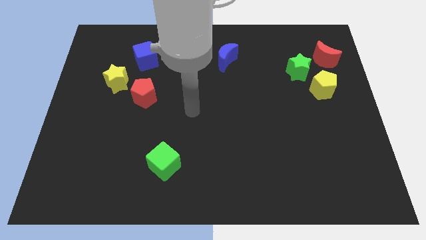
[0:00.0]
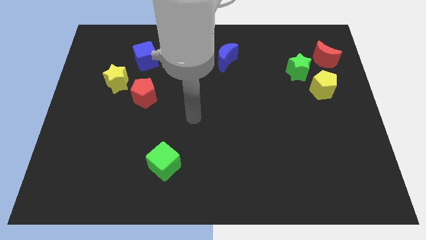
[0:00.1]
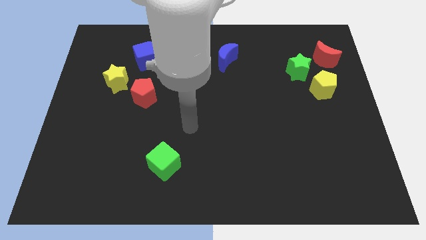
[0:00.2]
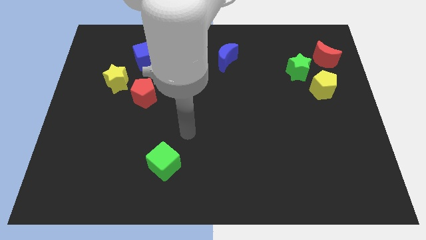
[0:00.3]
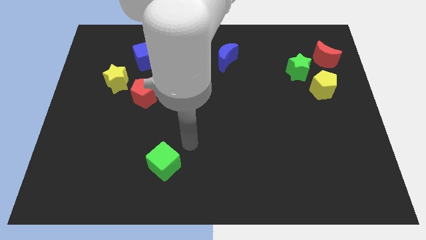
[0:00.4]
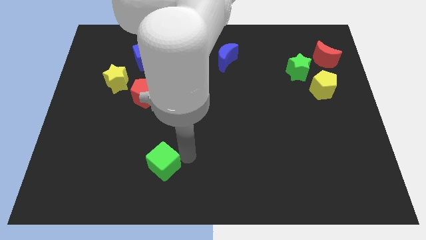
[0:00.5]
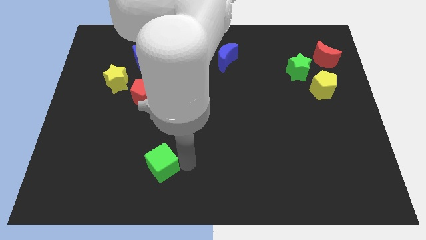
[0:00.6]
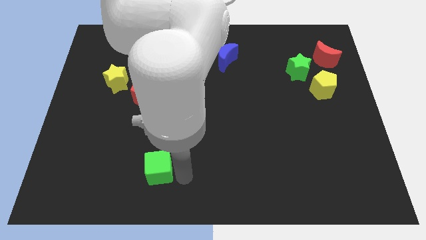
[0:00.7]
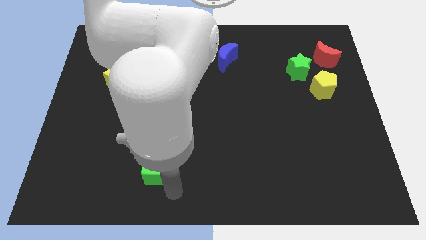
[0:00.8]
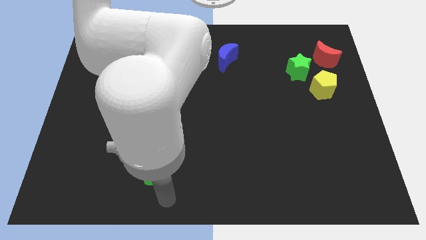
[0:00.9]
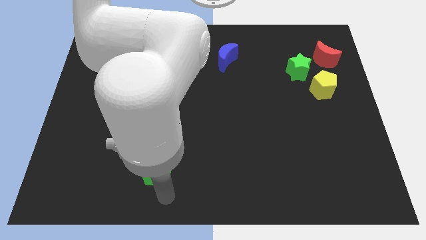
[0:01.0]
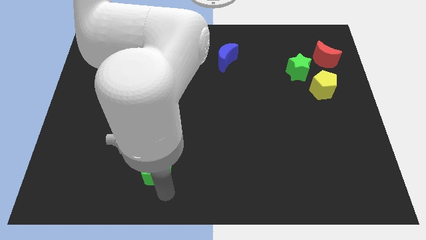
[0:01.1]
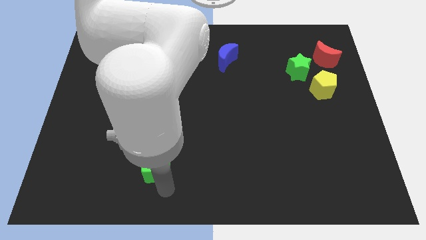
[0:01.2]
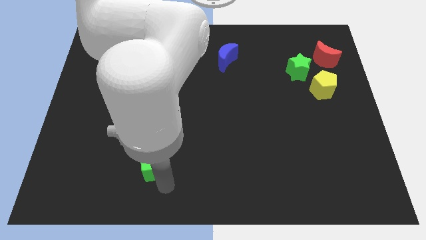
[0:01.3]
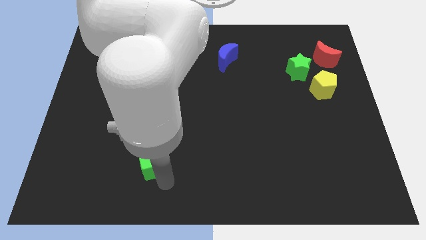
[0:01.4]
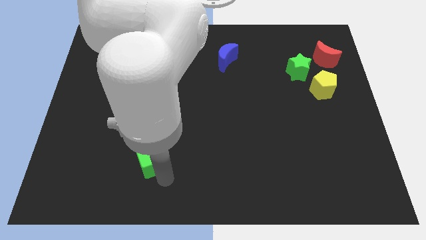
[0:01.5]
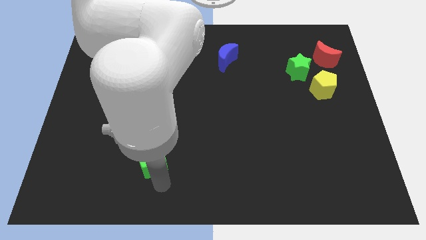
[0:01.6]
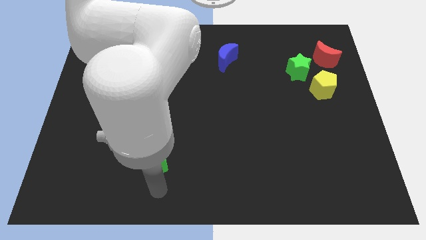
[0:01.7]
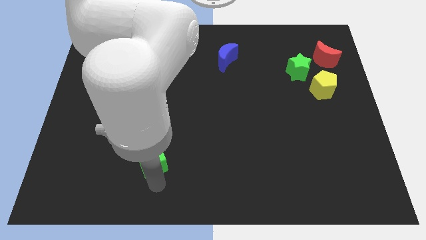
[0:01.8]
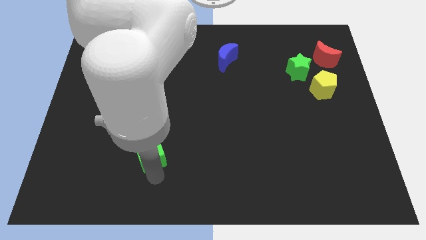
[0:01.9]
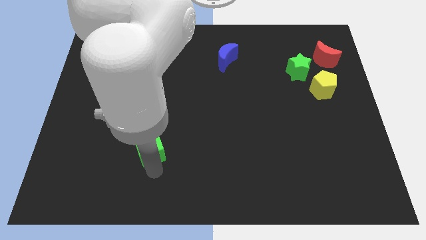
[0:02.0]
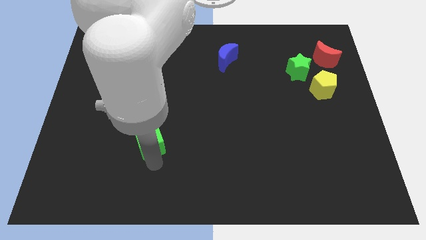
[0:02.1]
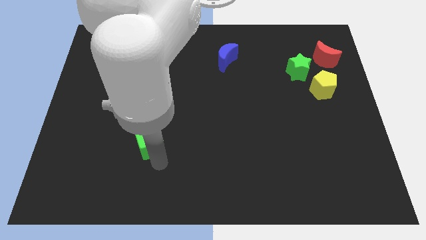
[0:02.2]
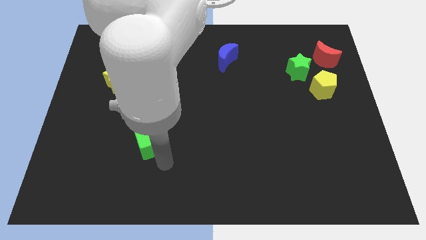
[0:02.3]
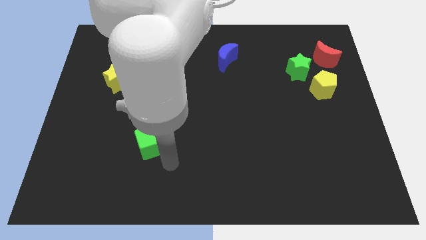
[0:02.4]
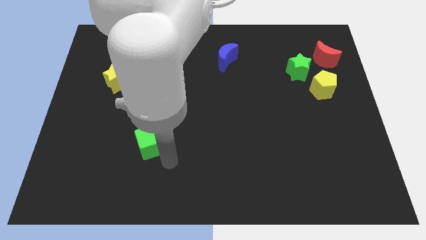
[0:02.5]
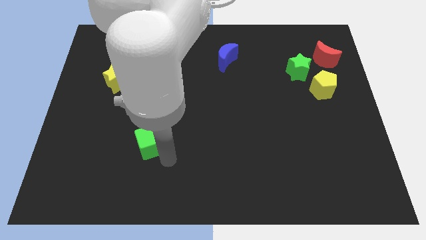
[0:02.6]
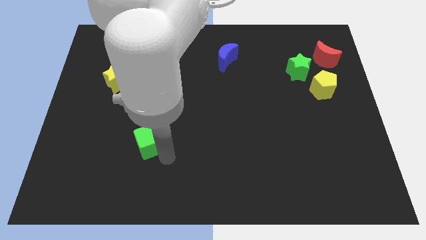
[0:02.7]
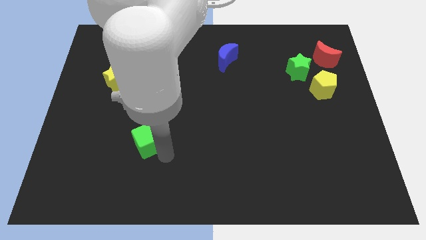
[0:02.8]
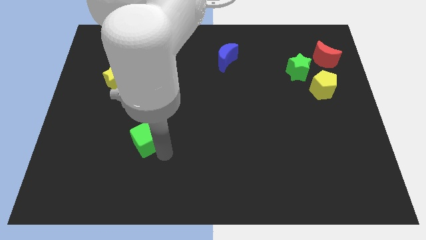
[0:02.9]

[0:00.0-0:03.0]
slide the green cube somewhat up and to the left

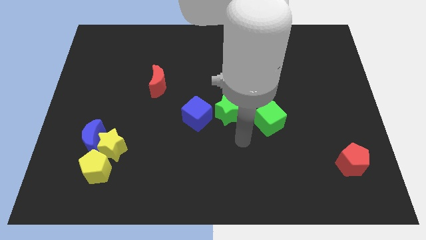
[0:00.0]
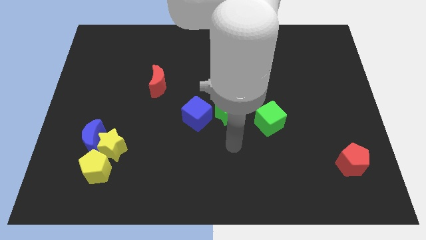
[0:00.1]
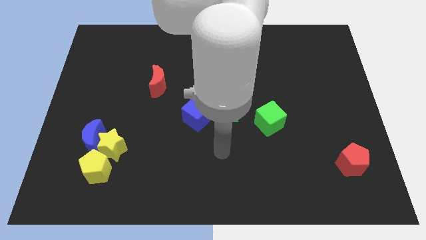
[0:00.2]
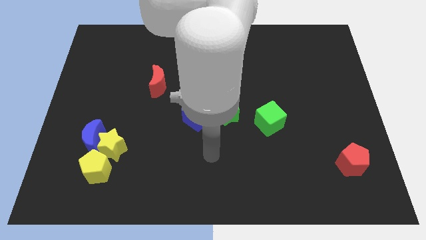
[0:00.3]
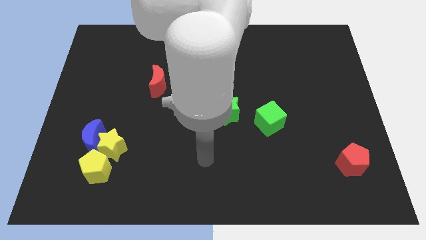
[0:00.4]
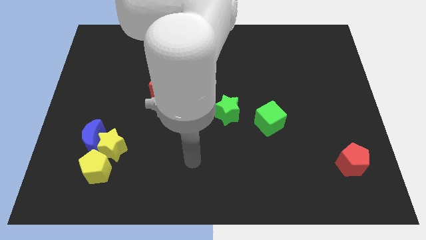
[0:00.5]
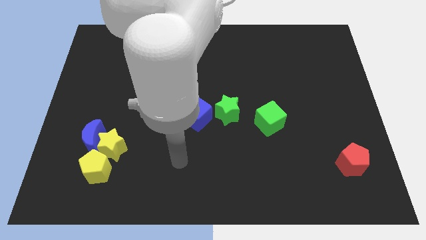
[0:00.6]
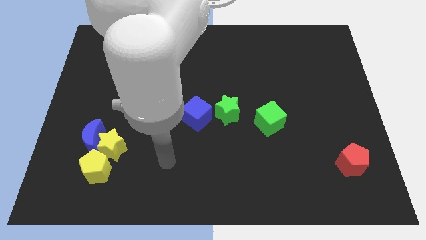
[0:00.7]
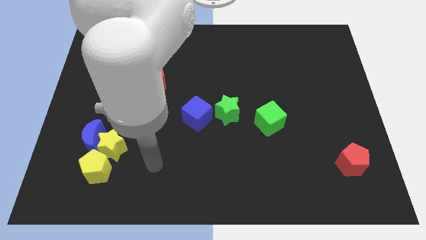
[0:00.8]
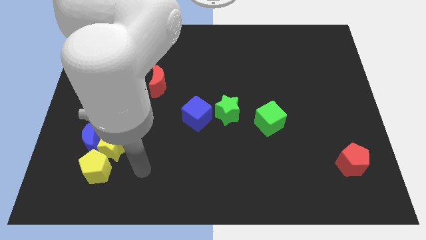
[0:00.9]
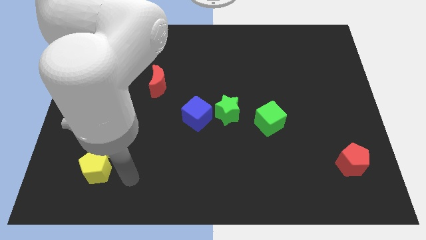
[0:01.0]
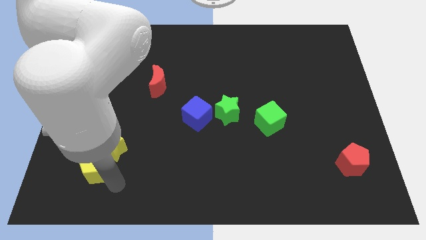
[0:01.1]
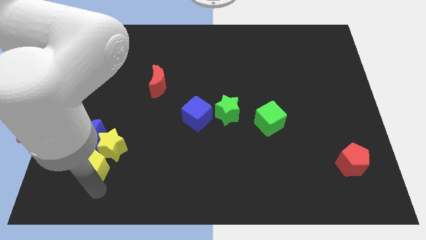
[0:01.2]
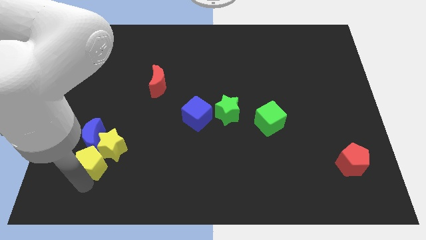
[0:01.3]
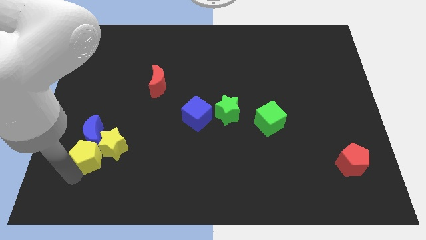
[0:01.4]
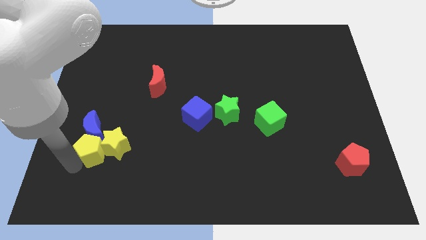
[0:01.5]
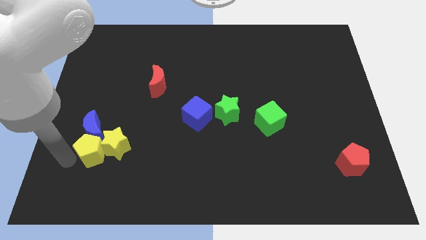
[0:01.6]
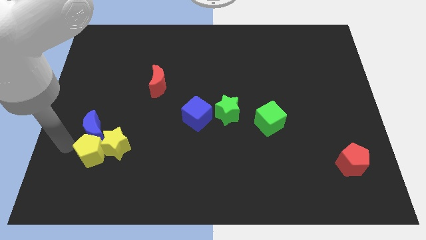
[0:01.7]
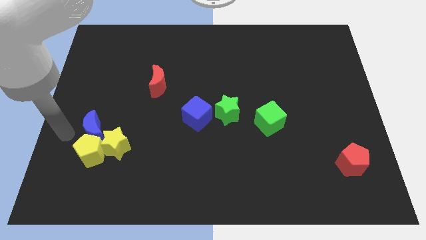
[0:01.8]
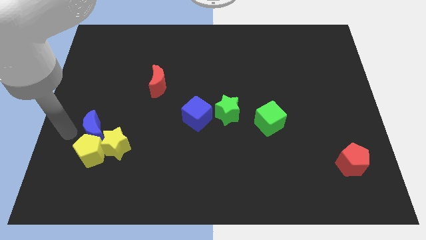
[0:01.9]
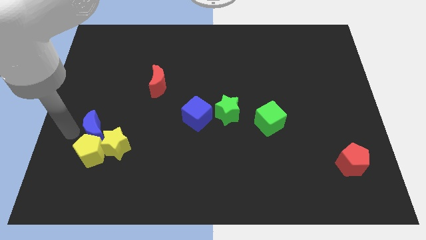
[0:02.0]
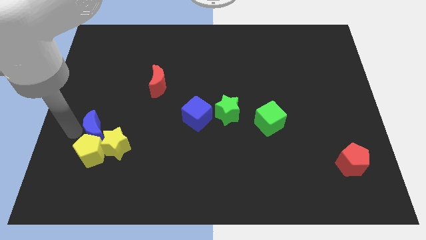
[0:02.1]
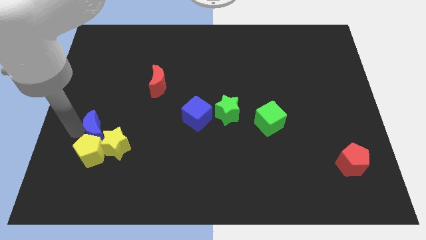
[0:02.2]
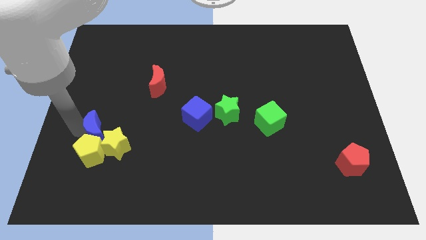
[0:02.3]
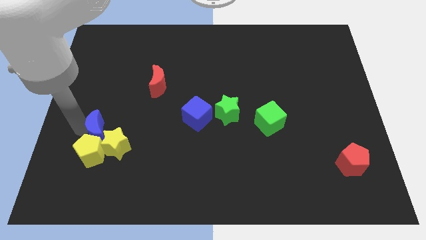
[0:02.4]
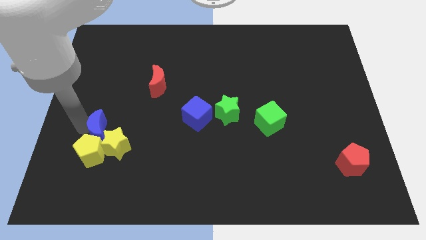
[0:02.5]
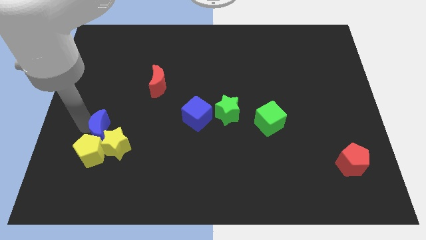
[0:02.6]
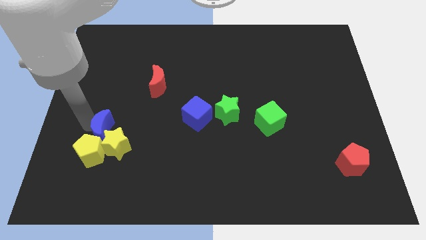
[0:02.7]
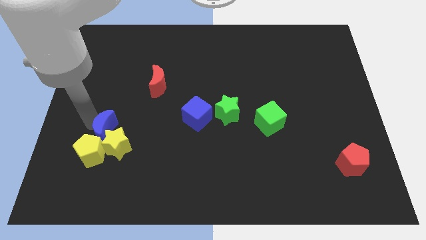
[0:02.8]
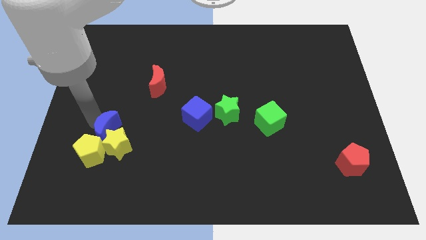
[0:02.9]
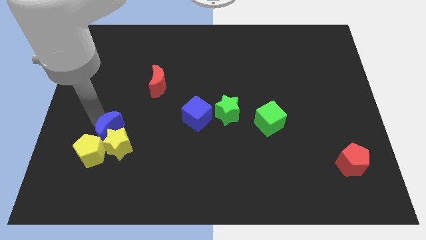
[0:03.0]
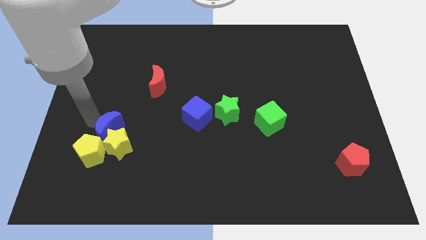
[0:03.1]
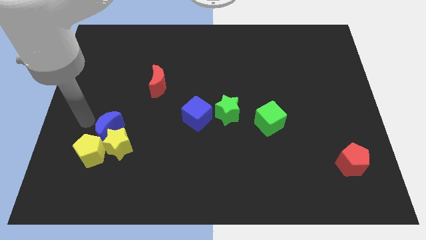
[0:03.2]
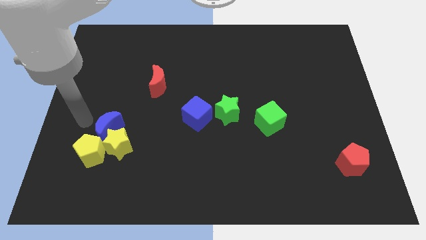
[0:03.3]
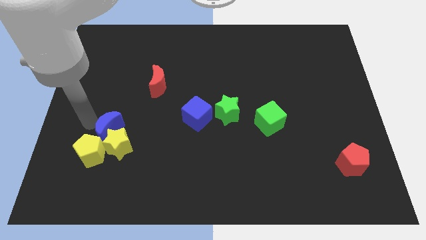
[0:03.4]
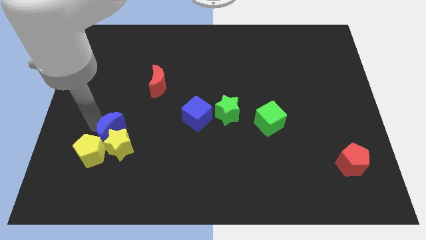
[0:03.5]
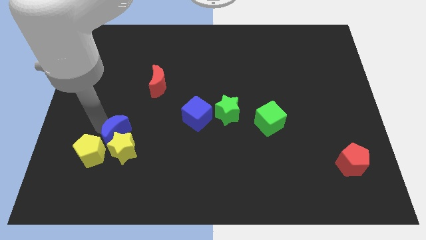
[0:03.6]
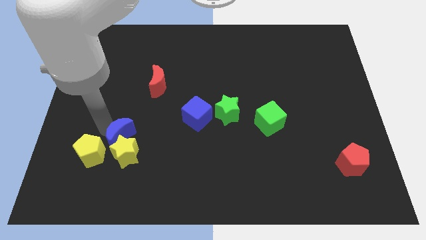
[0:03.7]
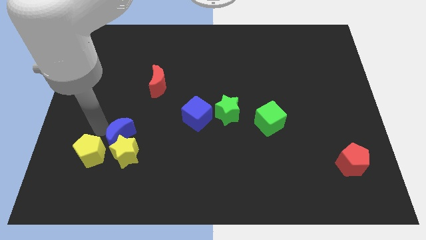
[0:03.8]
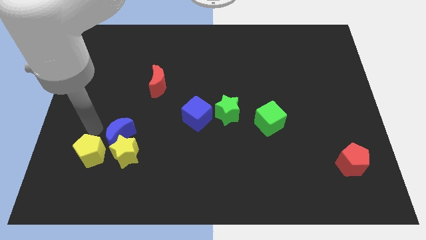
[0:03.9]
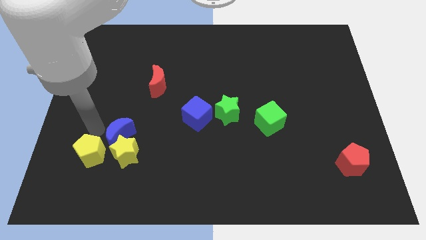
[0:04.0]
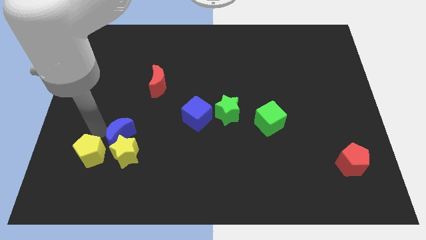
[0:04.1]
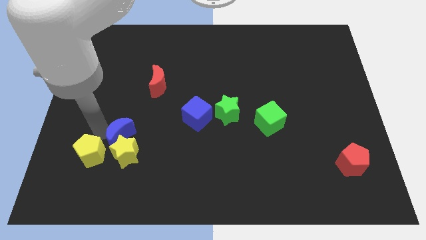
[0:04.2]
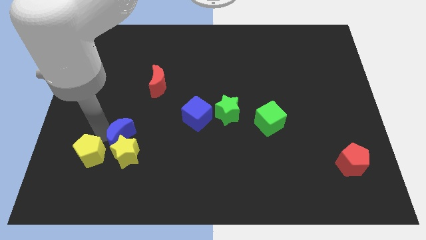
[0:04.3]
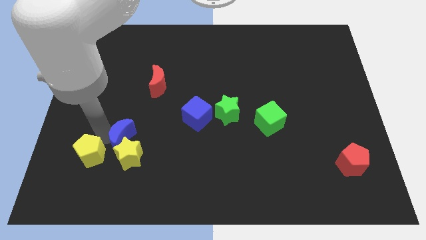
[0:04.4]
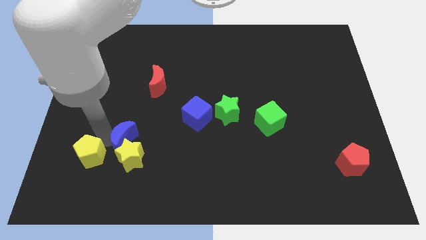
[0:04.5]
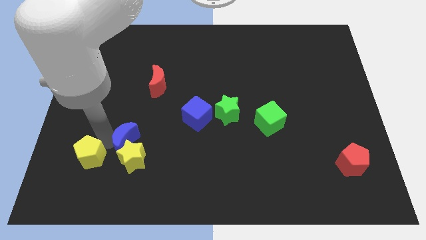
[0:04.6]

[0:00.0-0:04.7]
slightly slide the blue moon right

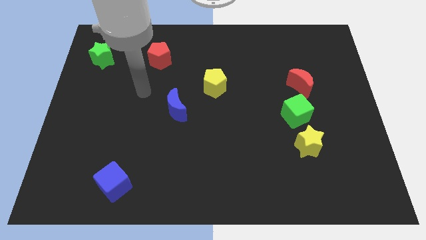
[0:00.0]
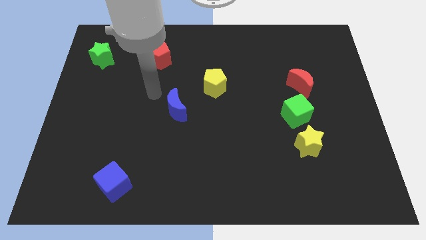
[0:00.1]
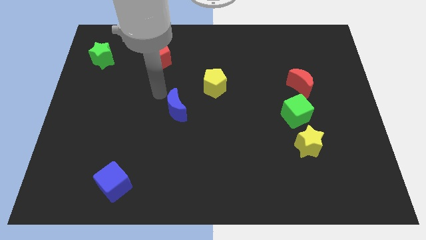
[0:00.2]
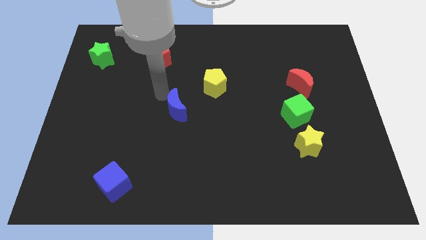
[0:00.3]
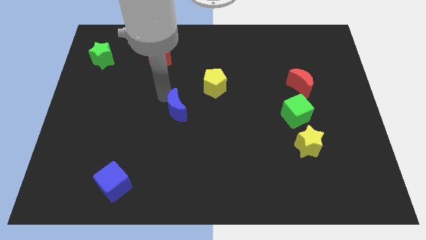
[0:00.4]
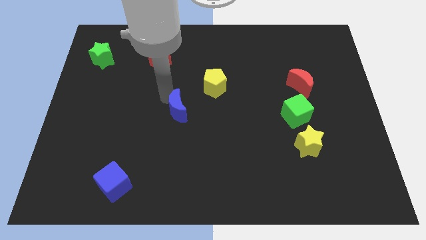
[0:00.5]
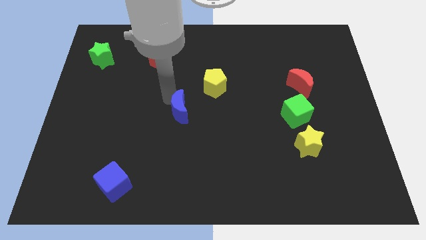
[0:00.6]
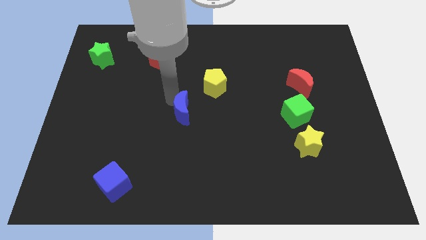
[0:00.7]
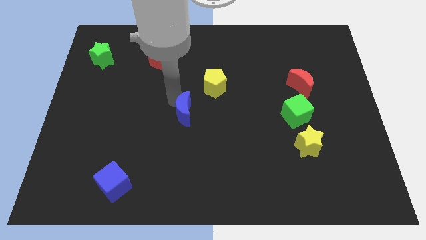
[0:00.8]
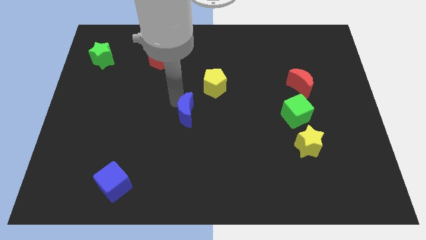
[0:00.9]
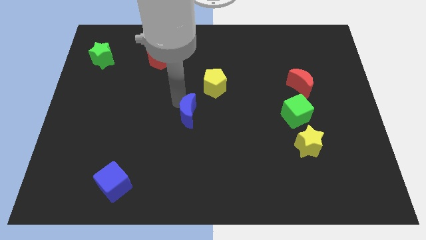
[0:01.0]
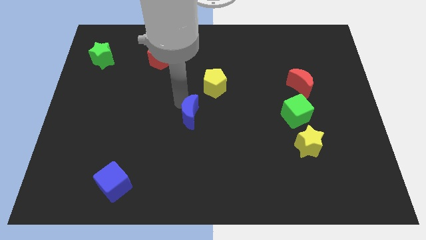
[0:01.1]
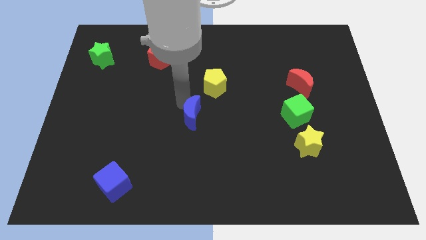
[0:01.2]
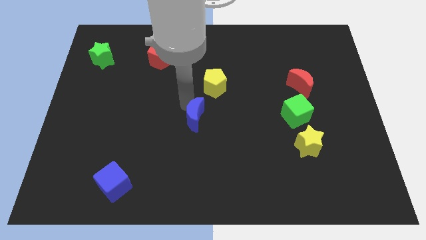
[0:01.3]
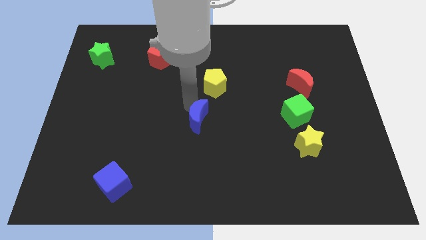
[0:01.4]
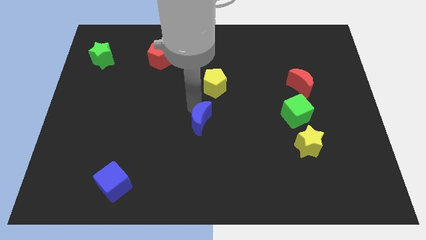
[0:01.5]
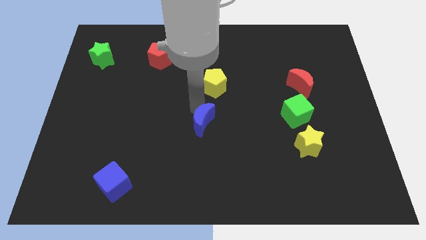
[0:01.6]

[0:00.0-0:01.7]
slightly slide the blue moon downwards and then right
